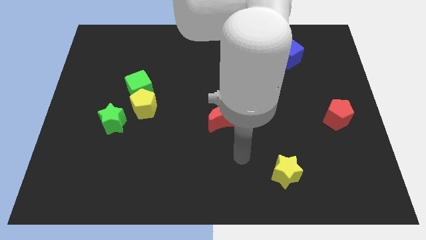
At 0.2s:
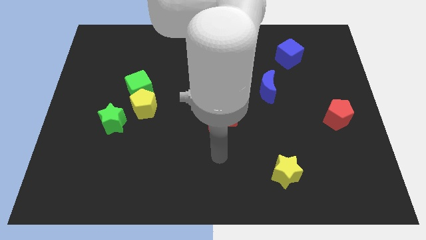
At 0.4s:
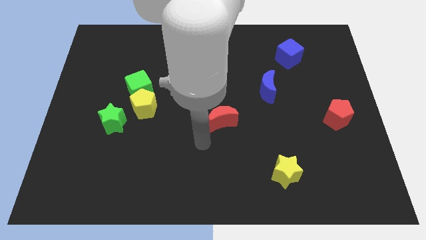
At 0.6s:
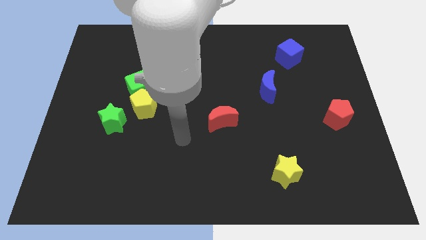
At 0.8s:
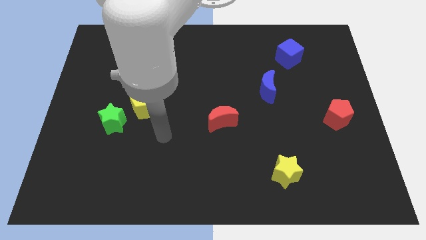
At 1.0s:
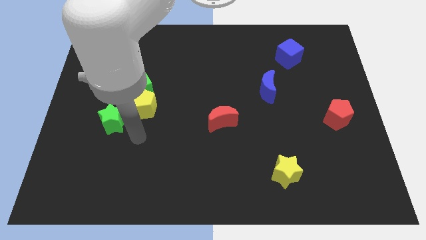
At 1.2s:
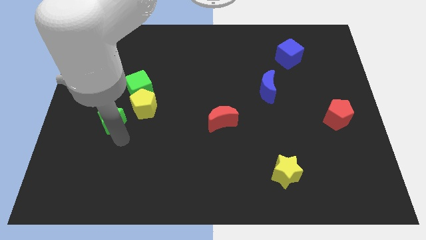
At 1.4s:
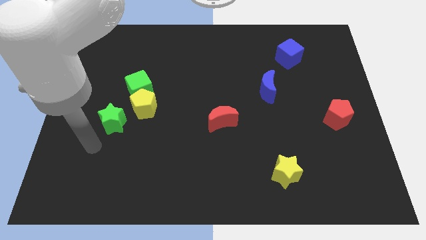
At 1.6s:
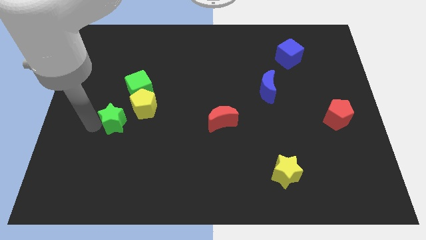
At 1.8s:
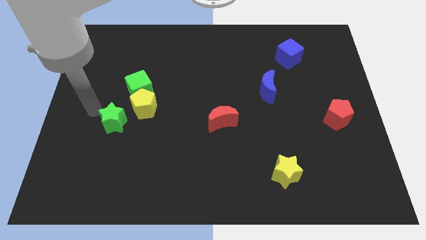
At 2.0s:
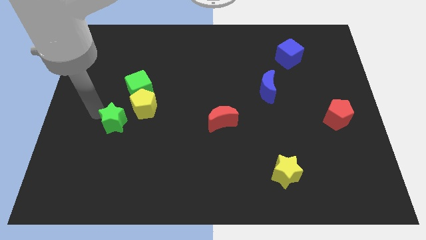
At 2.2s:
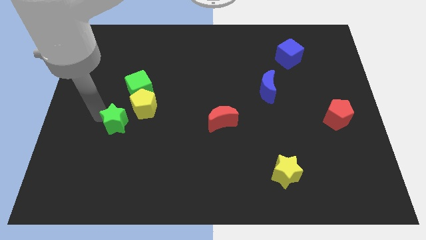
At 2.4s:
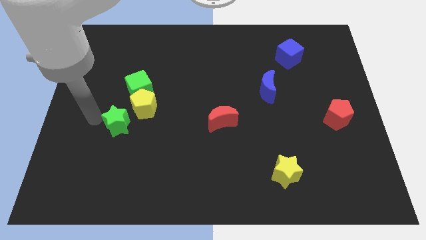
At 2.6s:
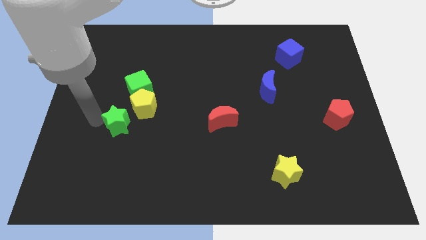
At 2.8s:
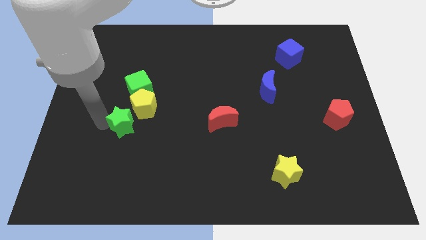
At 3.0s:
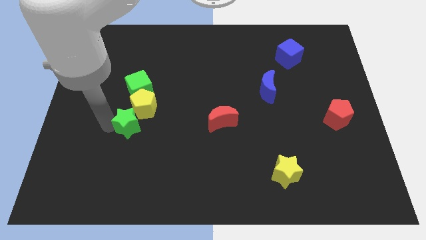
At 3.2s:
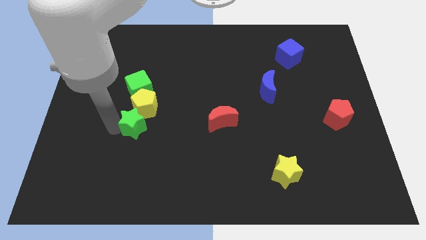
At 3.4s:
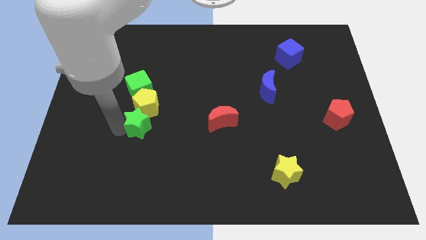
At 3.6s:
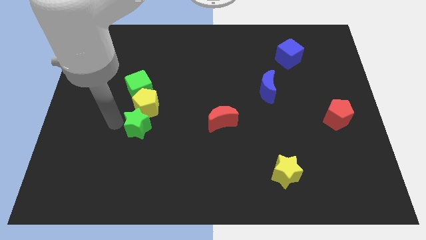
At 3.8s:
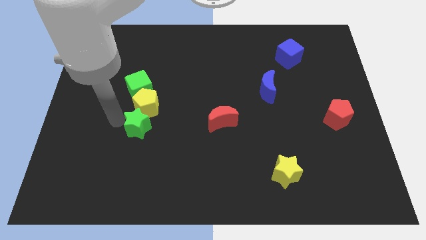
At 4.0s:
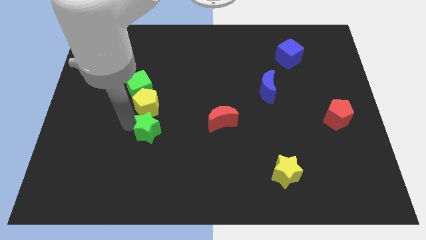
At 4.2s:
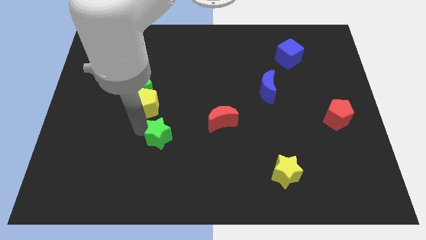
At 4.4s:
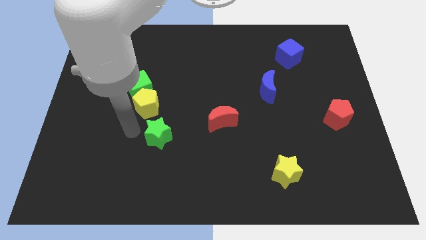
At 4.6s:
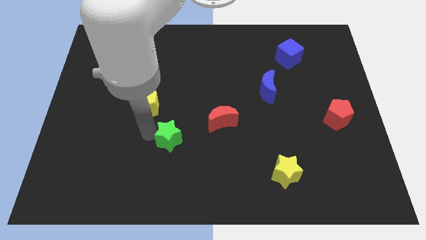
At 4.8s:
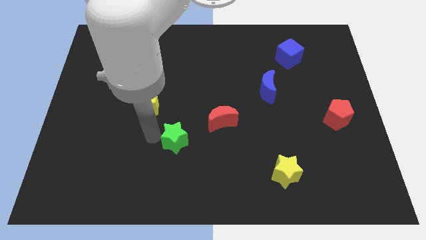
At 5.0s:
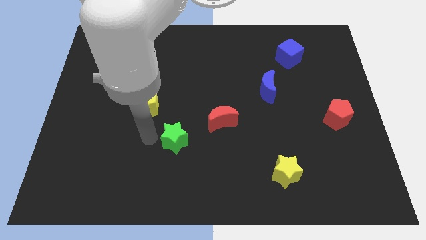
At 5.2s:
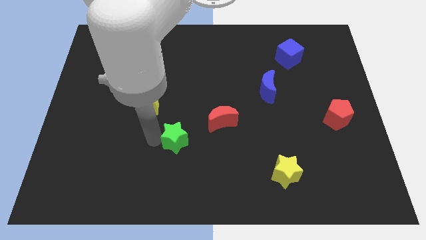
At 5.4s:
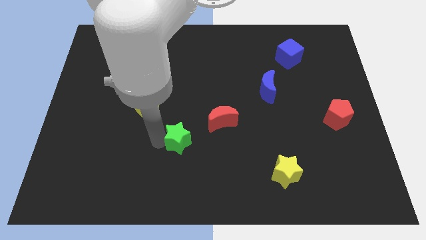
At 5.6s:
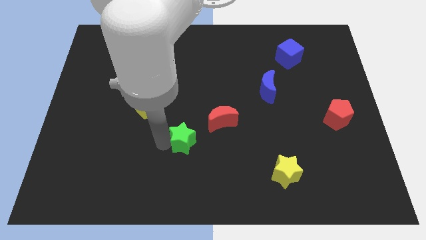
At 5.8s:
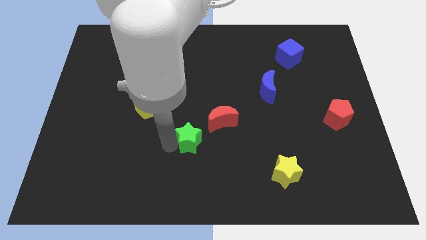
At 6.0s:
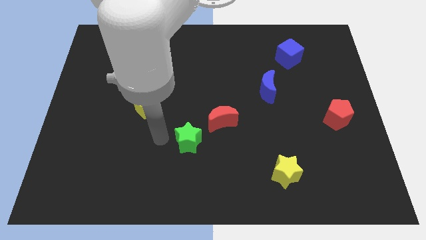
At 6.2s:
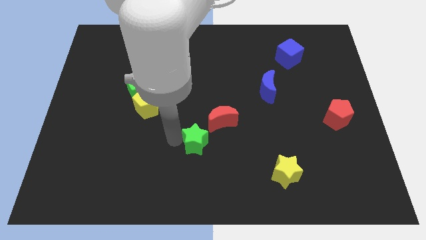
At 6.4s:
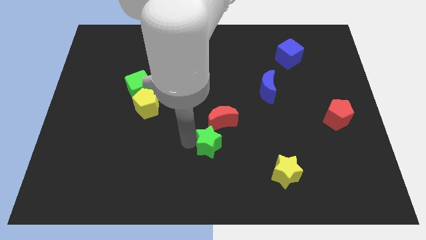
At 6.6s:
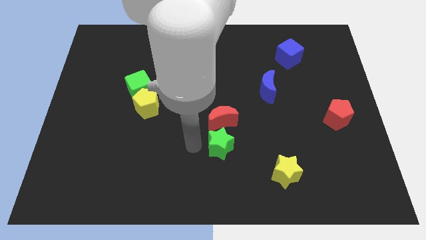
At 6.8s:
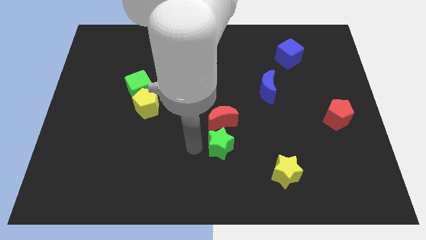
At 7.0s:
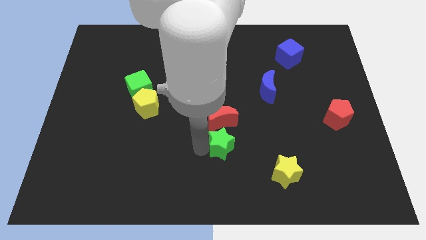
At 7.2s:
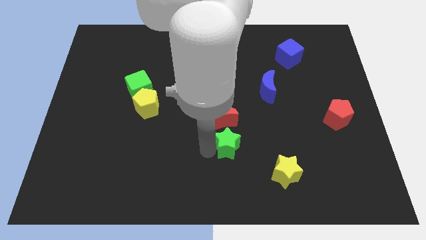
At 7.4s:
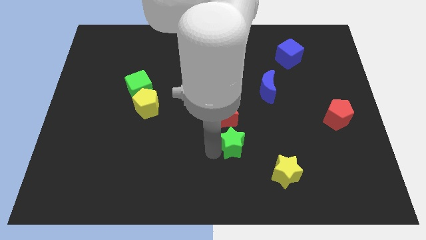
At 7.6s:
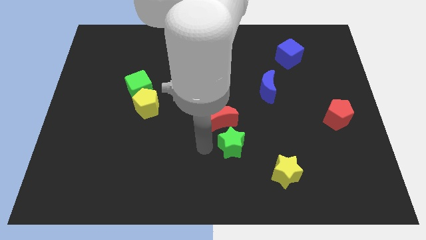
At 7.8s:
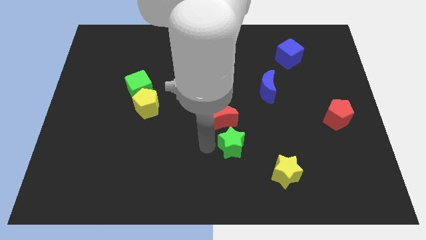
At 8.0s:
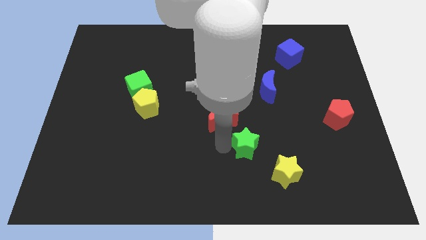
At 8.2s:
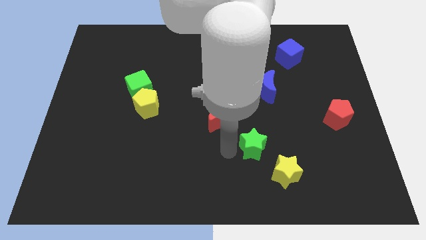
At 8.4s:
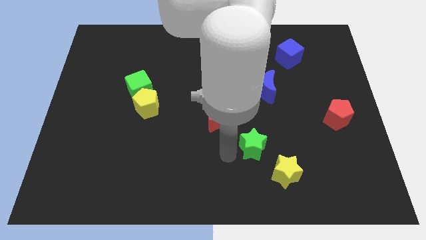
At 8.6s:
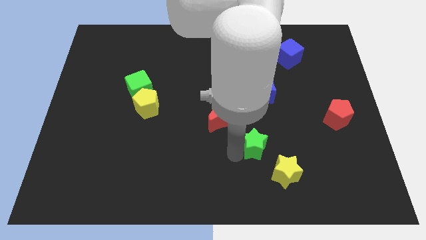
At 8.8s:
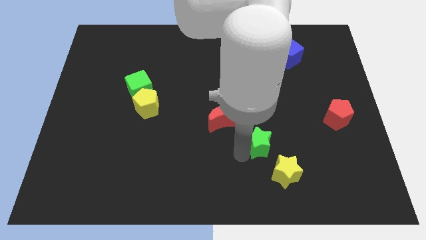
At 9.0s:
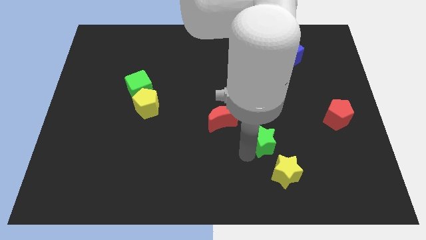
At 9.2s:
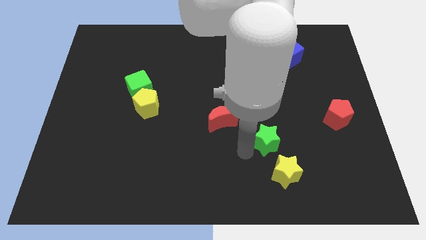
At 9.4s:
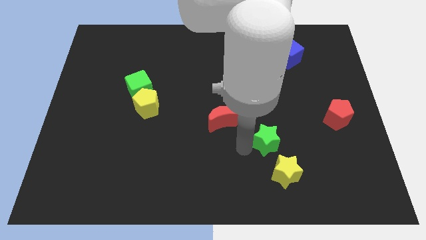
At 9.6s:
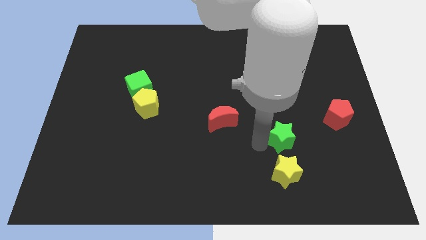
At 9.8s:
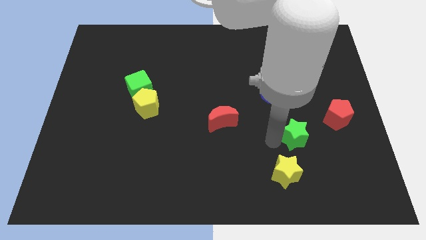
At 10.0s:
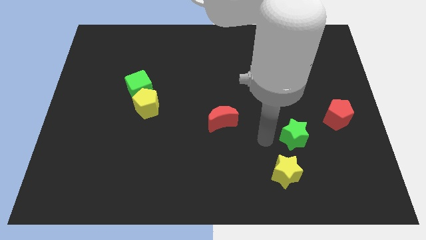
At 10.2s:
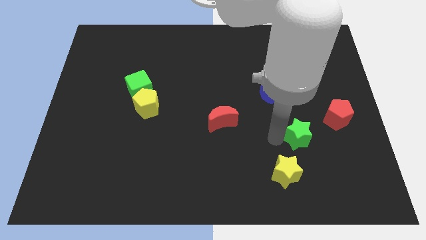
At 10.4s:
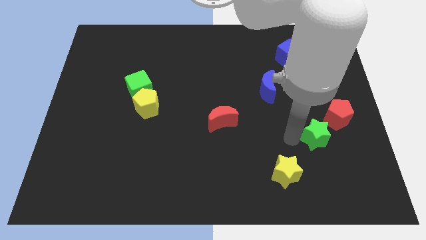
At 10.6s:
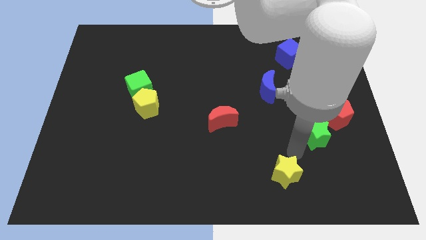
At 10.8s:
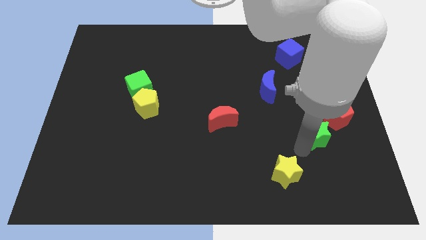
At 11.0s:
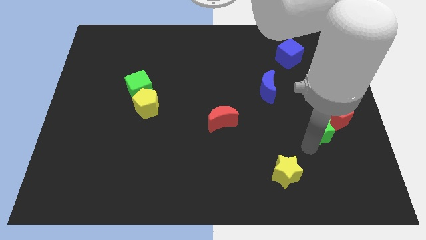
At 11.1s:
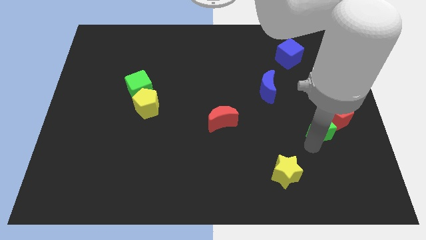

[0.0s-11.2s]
put the green star to the red pentagon

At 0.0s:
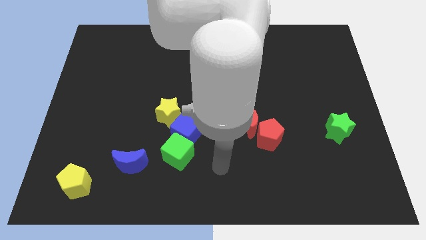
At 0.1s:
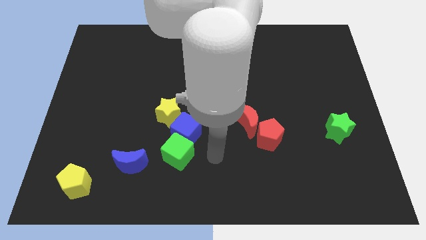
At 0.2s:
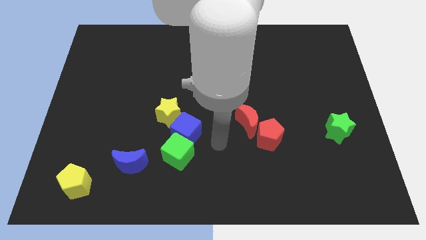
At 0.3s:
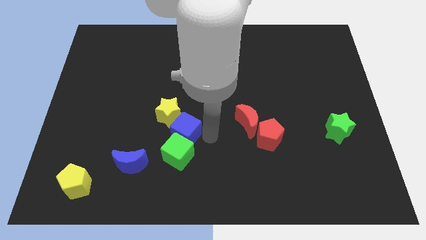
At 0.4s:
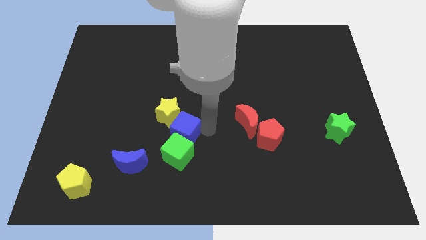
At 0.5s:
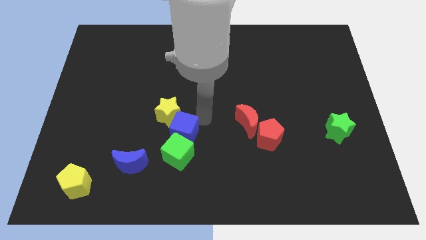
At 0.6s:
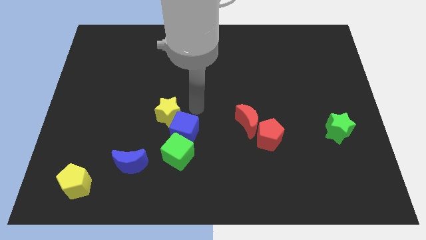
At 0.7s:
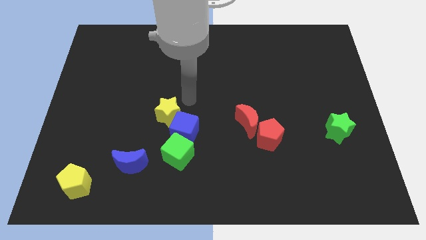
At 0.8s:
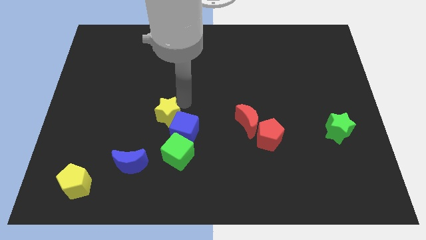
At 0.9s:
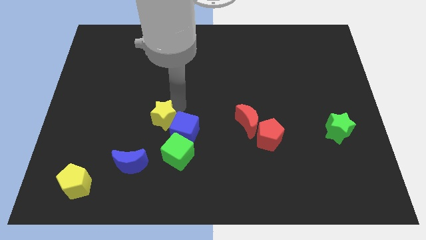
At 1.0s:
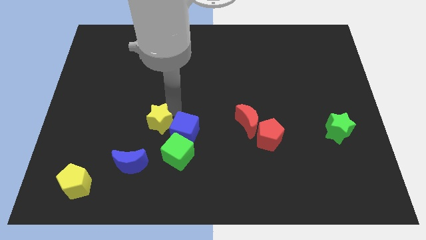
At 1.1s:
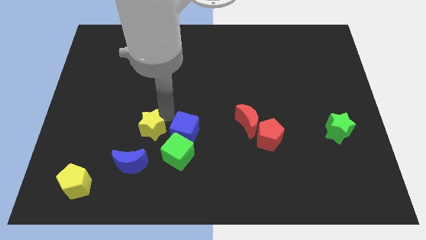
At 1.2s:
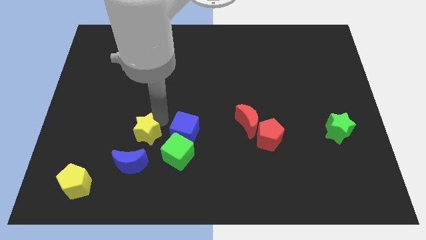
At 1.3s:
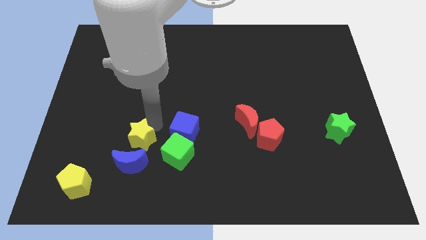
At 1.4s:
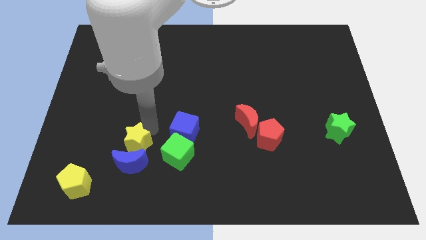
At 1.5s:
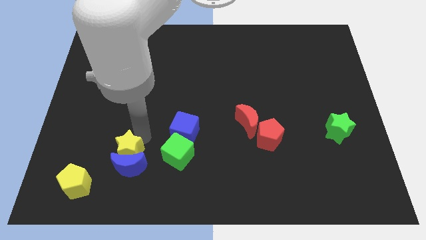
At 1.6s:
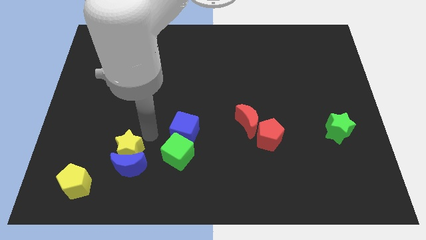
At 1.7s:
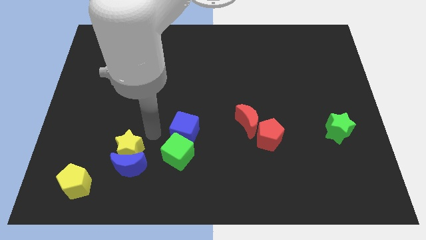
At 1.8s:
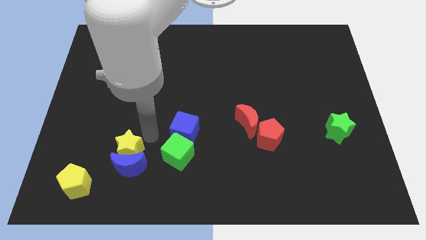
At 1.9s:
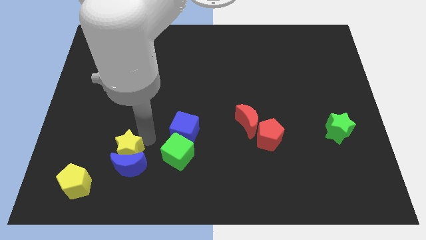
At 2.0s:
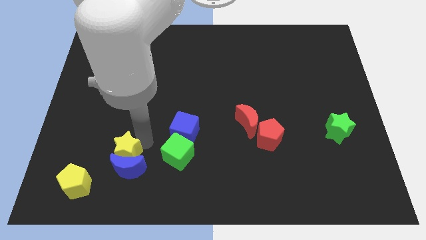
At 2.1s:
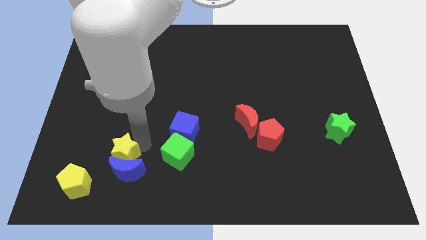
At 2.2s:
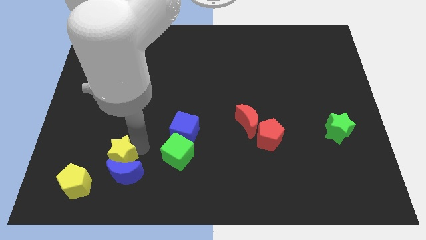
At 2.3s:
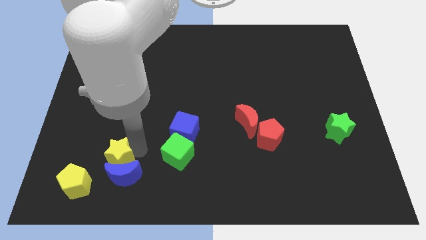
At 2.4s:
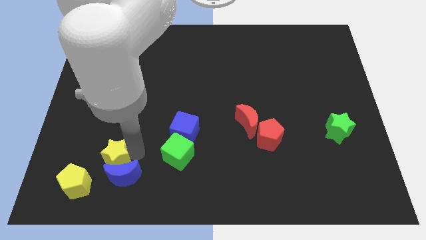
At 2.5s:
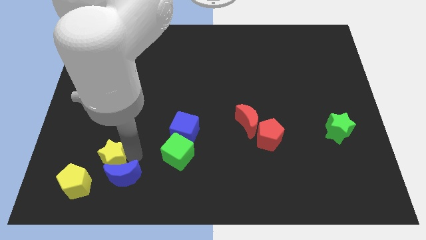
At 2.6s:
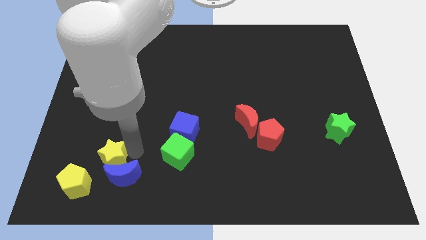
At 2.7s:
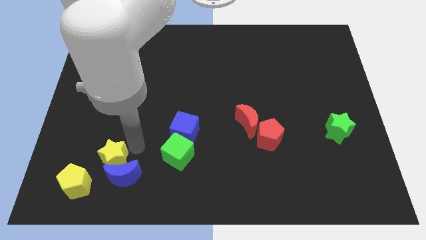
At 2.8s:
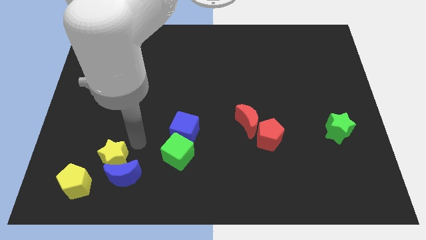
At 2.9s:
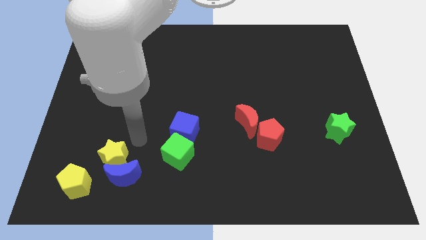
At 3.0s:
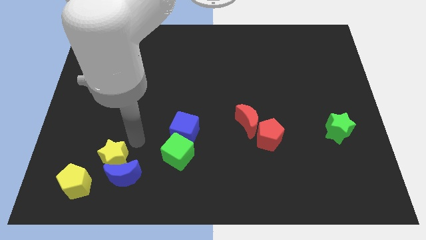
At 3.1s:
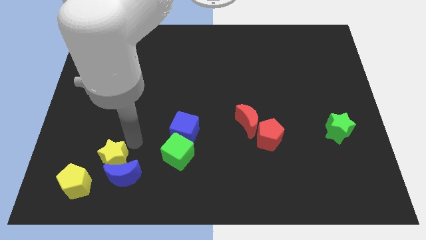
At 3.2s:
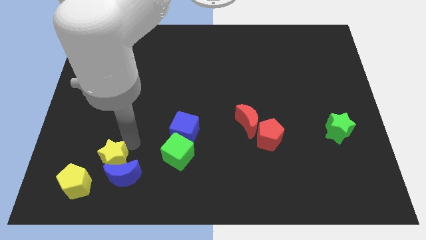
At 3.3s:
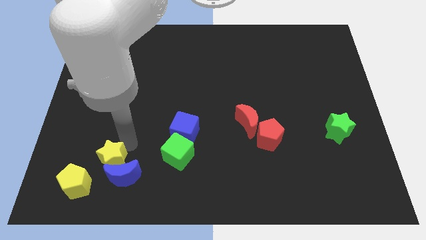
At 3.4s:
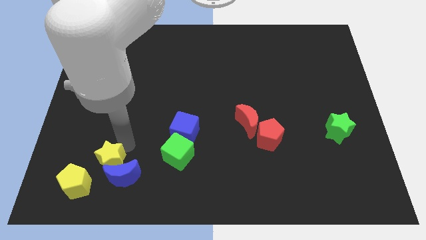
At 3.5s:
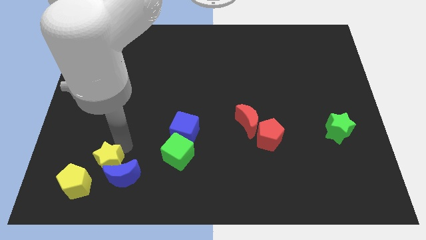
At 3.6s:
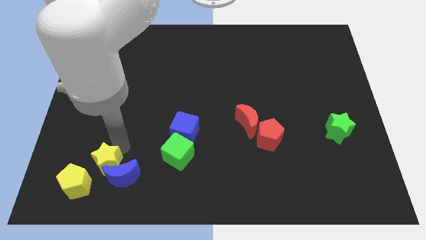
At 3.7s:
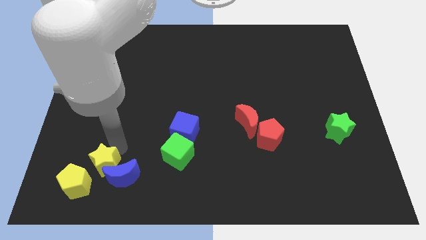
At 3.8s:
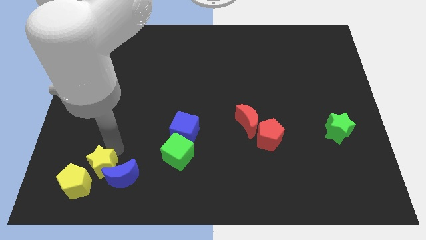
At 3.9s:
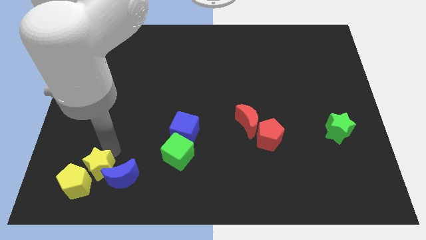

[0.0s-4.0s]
move the yellow star next to the yellow pentagon
